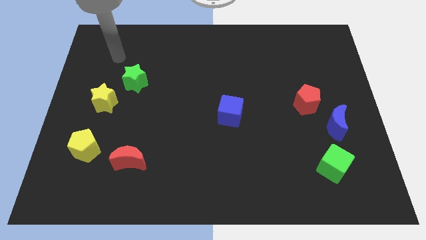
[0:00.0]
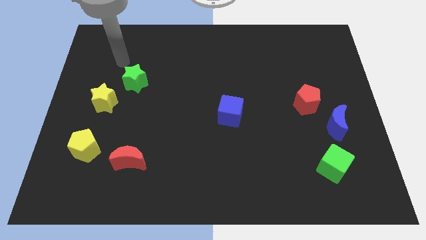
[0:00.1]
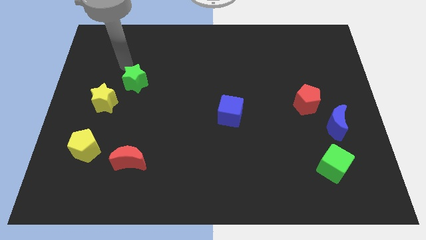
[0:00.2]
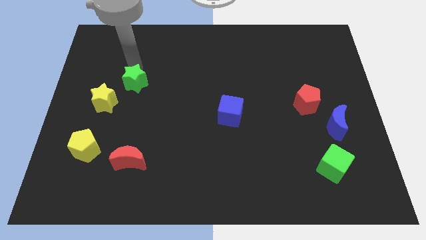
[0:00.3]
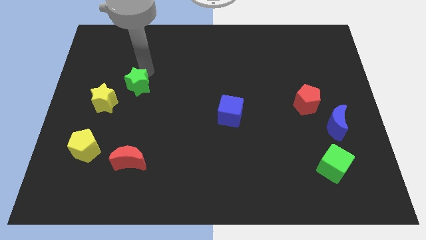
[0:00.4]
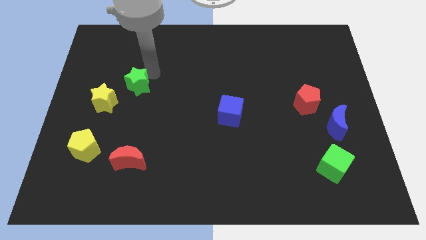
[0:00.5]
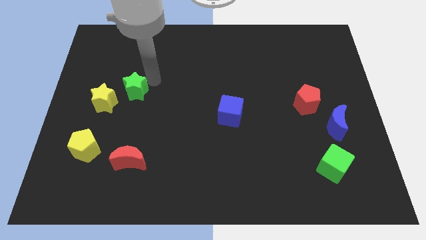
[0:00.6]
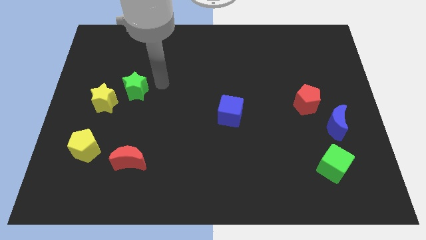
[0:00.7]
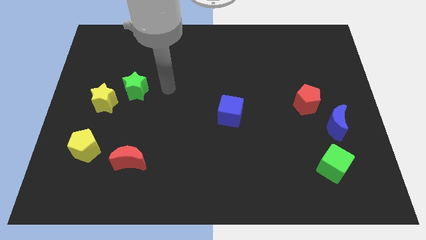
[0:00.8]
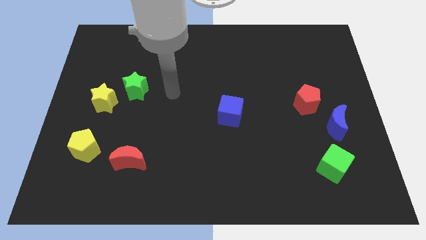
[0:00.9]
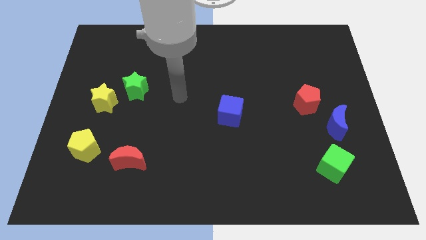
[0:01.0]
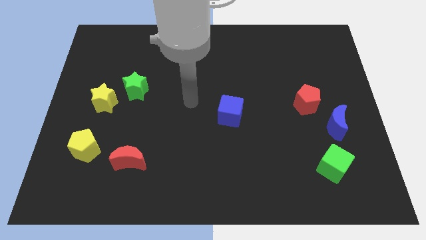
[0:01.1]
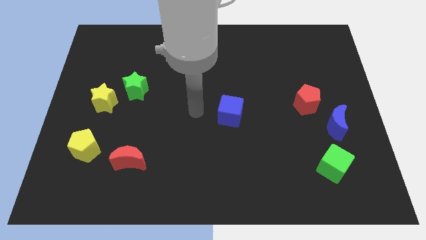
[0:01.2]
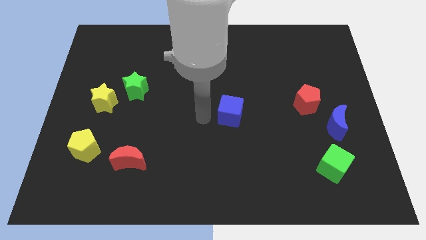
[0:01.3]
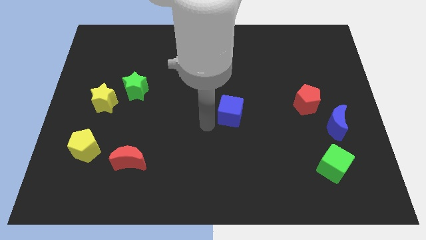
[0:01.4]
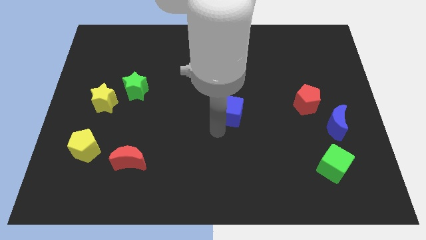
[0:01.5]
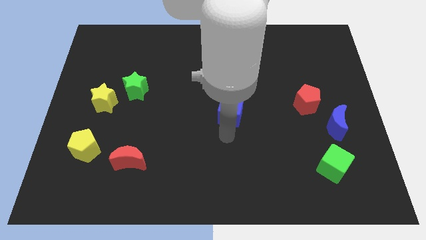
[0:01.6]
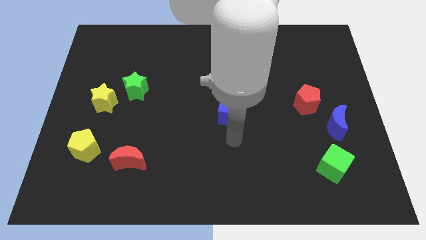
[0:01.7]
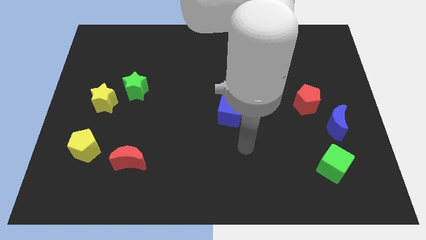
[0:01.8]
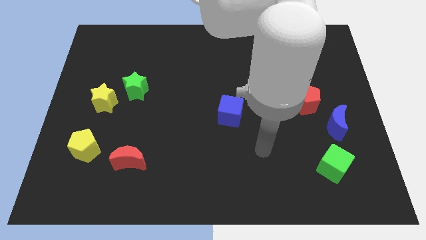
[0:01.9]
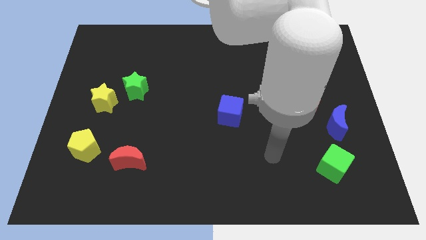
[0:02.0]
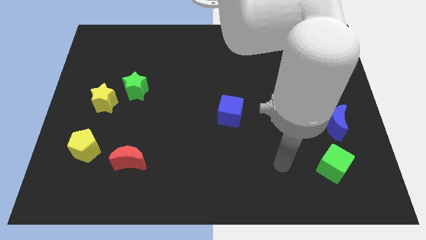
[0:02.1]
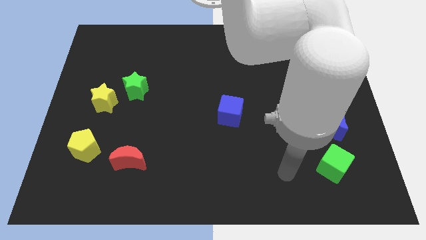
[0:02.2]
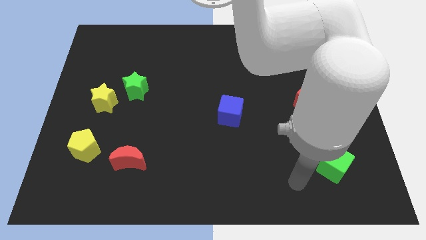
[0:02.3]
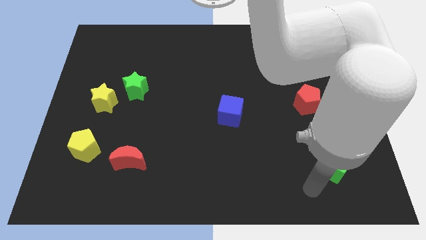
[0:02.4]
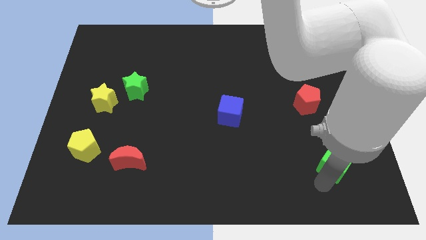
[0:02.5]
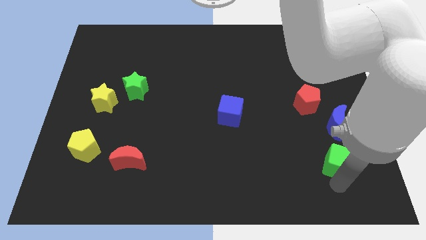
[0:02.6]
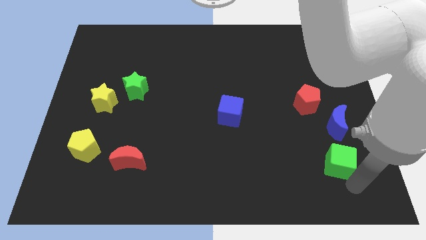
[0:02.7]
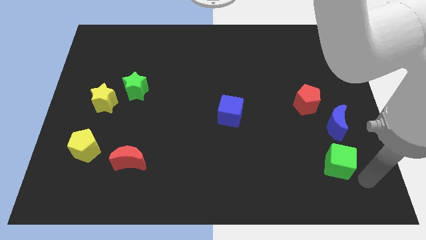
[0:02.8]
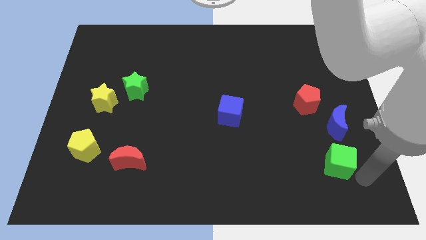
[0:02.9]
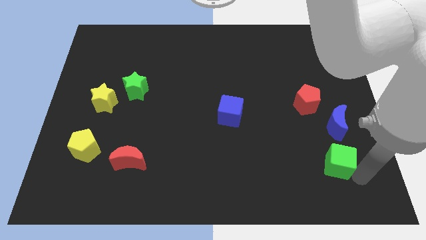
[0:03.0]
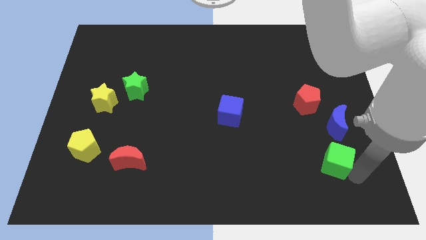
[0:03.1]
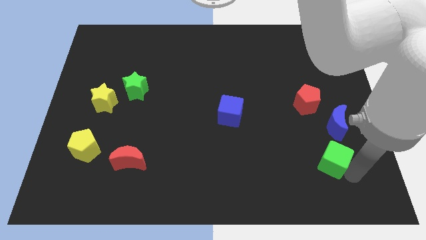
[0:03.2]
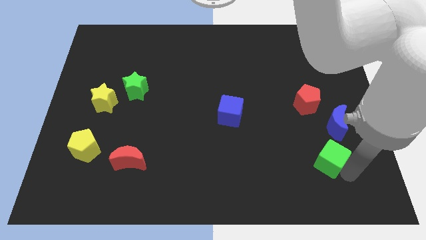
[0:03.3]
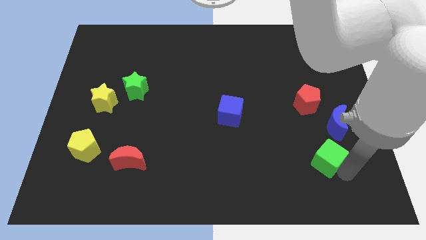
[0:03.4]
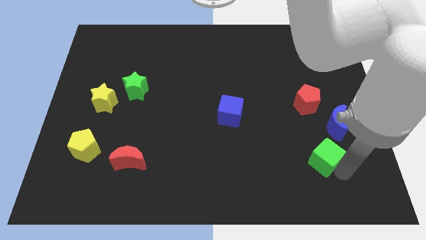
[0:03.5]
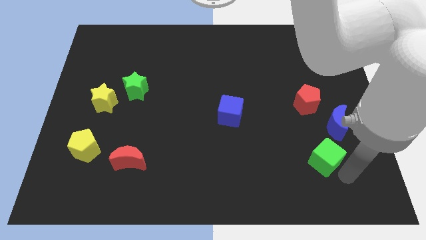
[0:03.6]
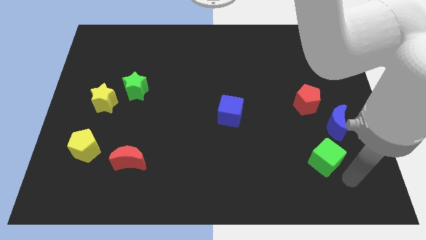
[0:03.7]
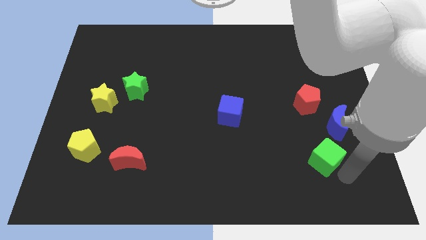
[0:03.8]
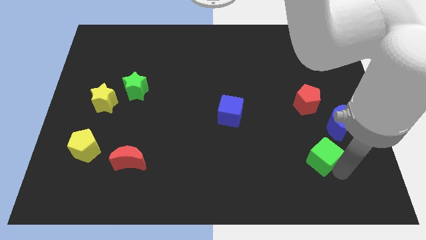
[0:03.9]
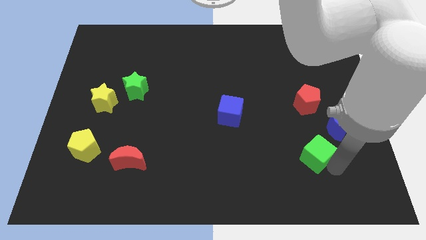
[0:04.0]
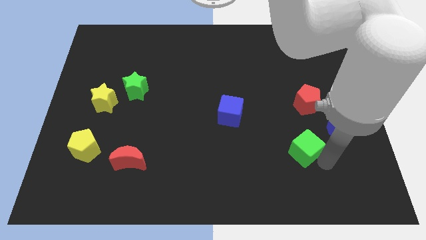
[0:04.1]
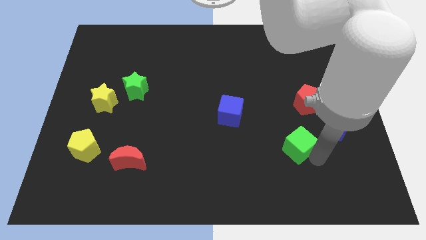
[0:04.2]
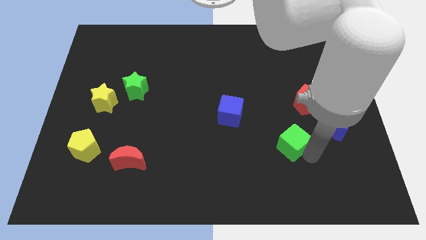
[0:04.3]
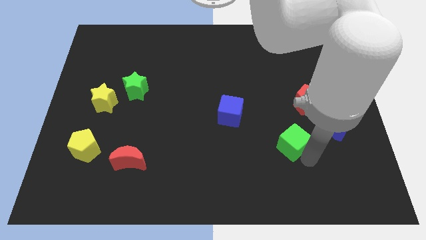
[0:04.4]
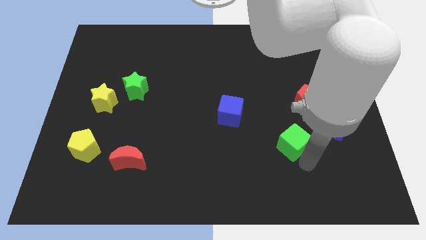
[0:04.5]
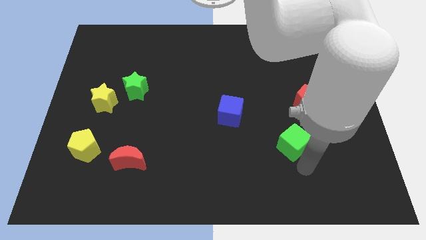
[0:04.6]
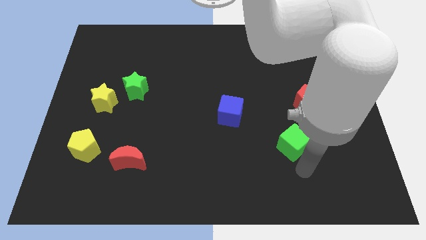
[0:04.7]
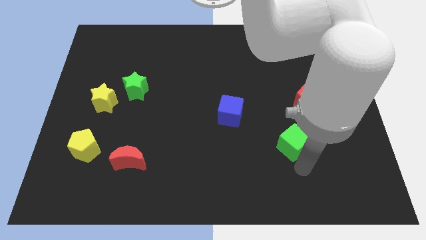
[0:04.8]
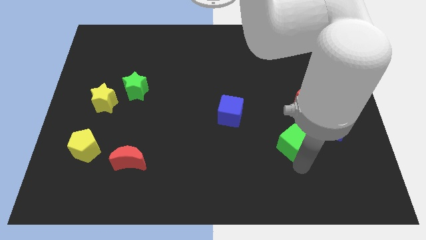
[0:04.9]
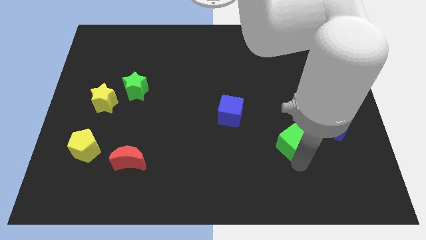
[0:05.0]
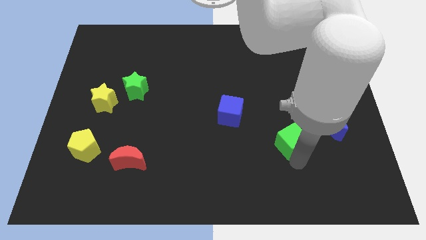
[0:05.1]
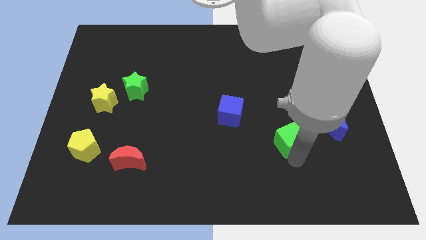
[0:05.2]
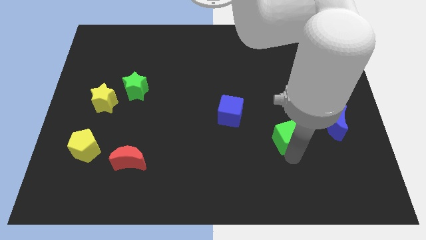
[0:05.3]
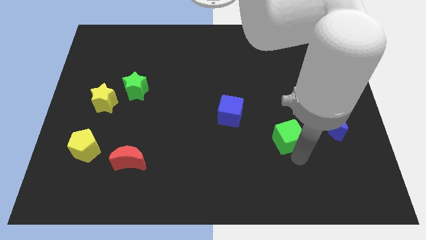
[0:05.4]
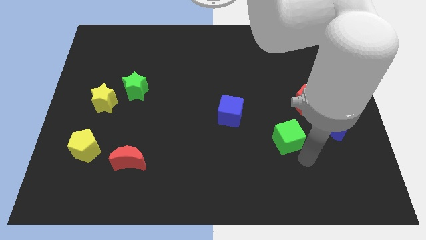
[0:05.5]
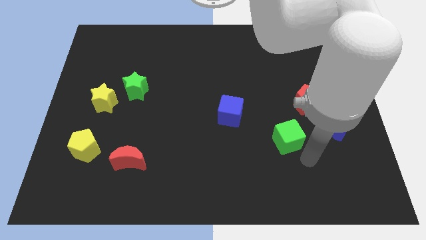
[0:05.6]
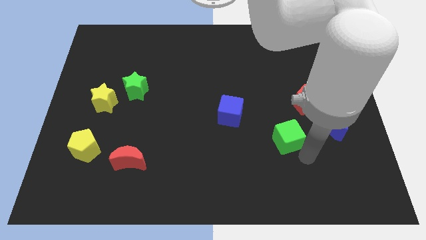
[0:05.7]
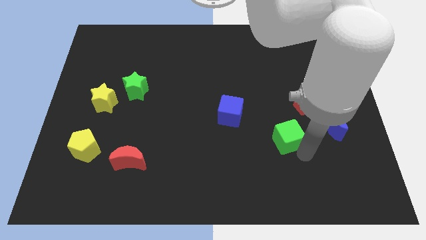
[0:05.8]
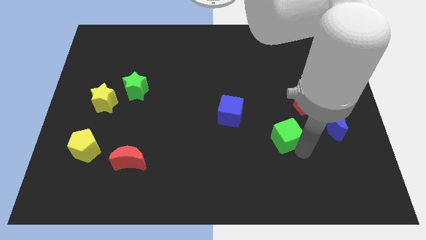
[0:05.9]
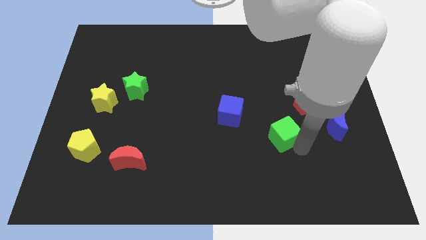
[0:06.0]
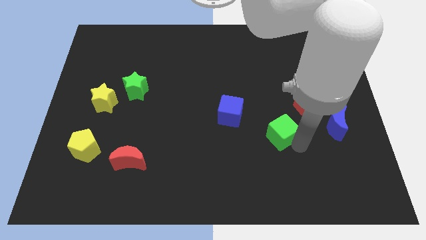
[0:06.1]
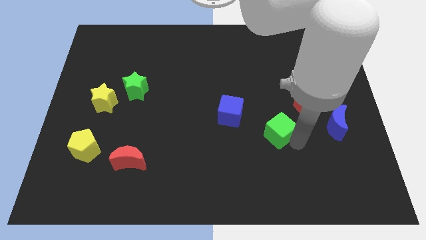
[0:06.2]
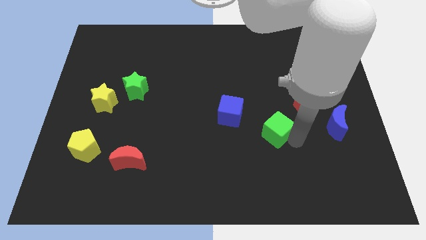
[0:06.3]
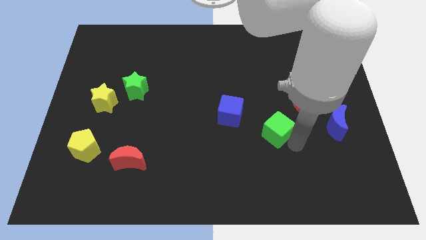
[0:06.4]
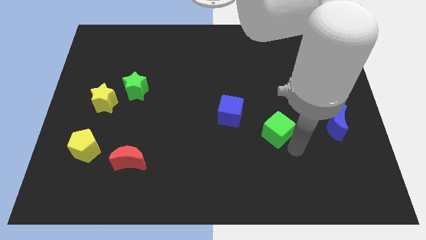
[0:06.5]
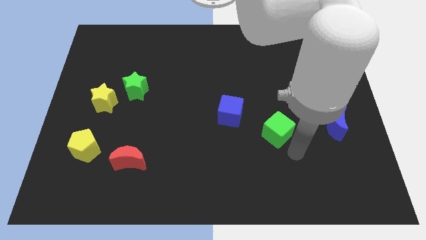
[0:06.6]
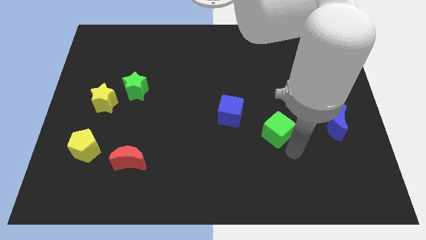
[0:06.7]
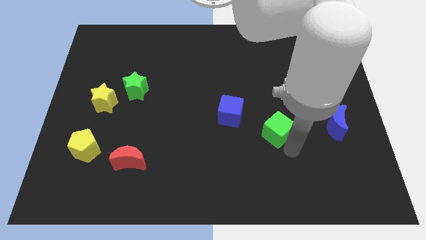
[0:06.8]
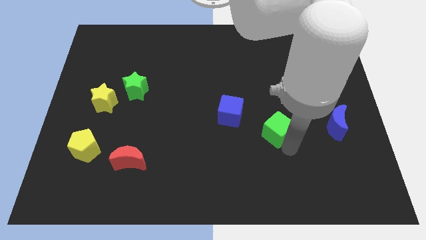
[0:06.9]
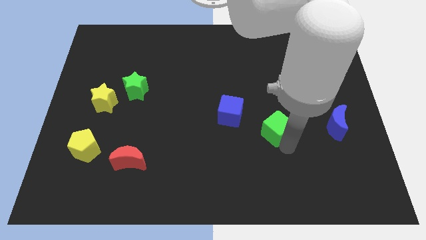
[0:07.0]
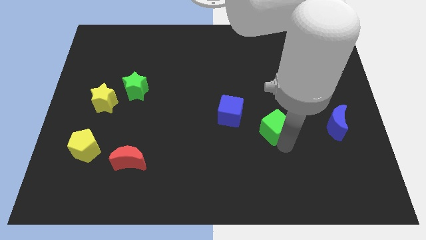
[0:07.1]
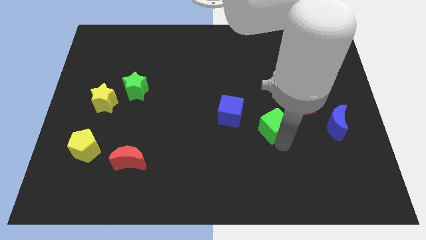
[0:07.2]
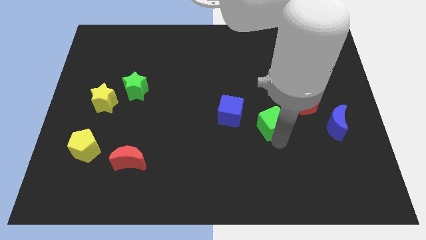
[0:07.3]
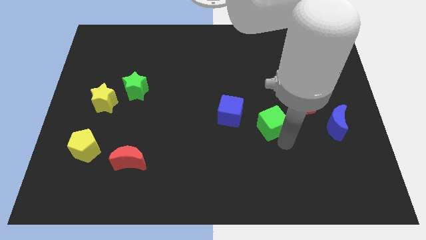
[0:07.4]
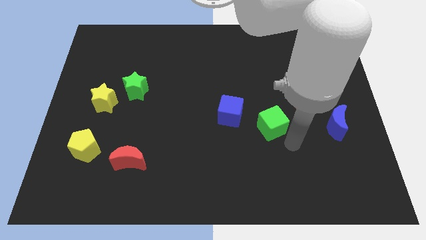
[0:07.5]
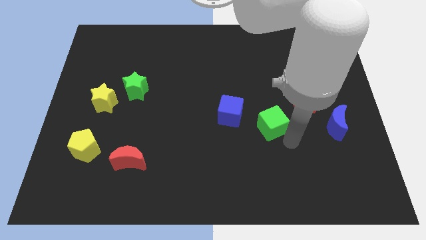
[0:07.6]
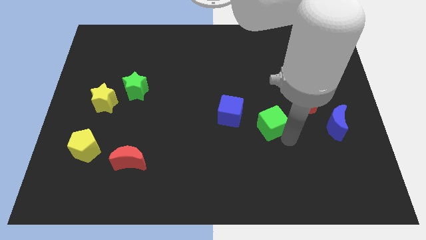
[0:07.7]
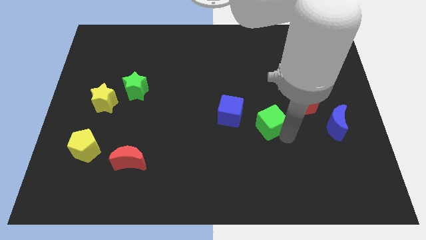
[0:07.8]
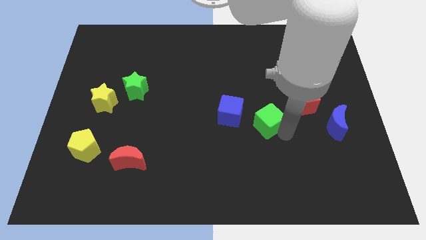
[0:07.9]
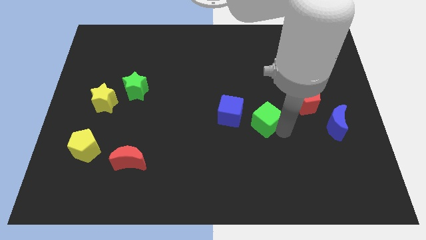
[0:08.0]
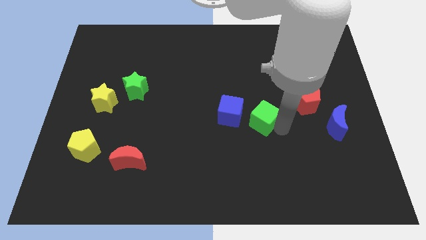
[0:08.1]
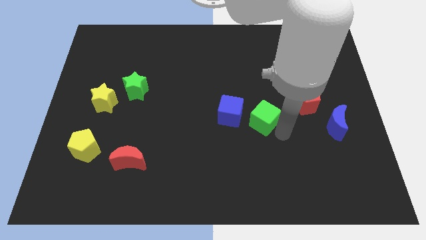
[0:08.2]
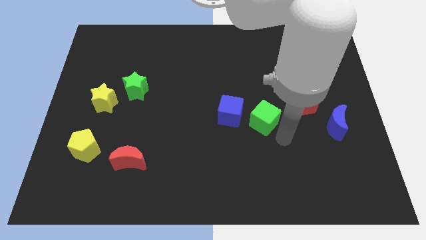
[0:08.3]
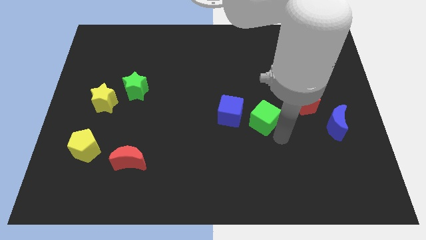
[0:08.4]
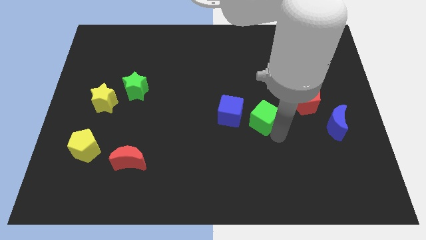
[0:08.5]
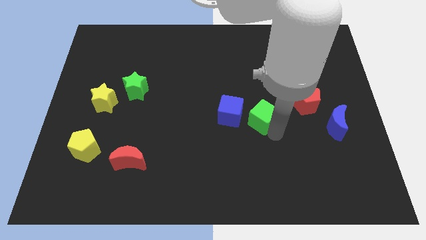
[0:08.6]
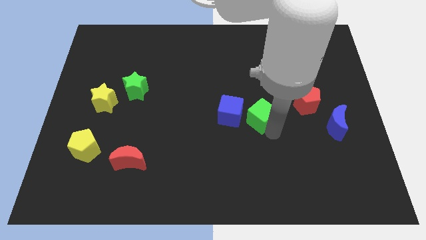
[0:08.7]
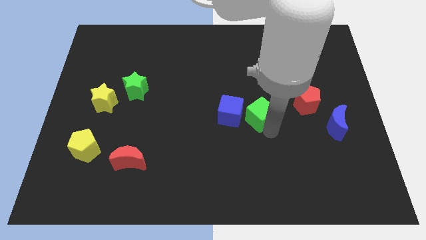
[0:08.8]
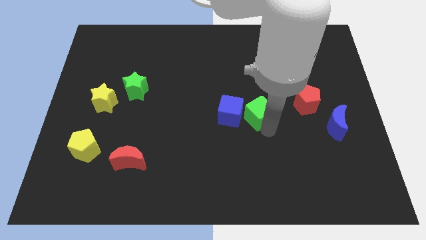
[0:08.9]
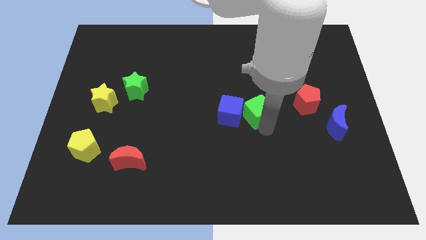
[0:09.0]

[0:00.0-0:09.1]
push the green cube up and to the left
